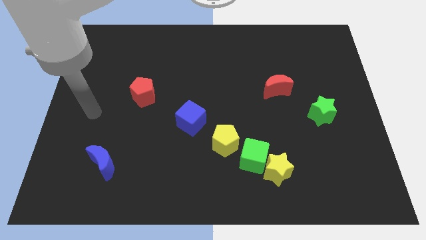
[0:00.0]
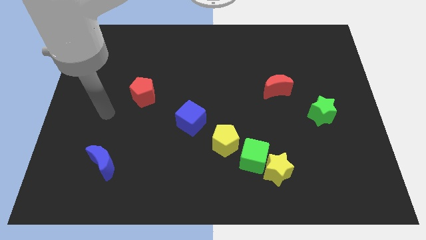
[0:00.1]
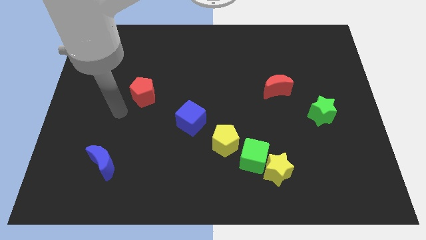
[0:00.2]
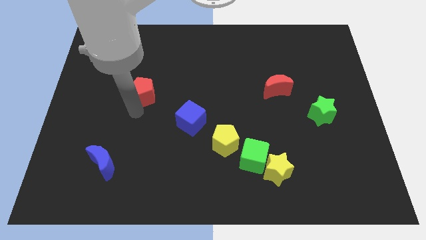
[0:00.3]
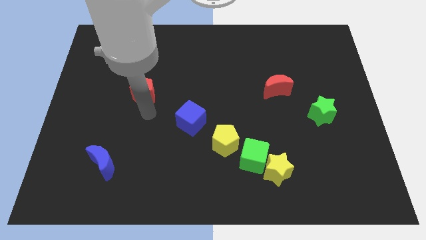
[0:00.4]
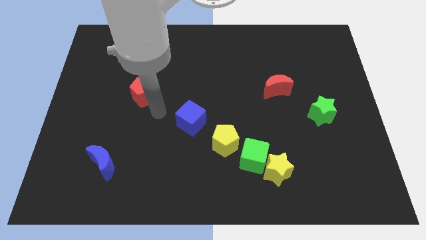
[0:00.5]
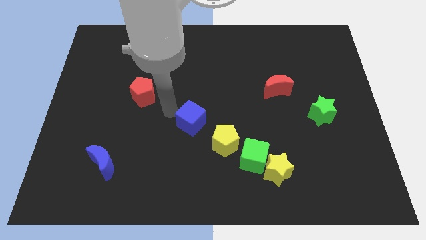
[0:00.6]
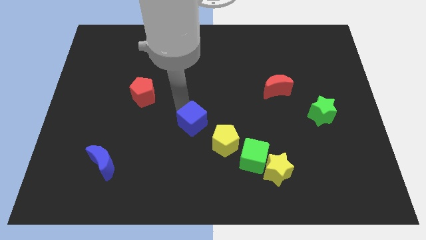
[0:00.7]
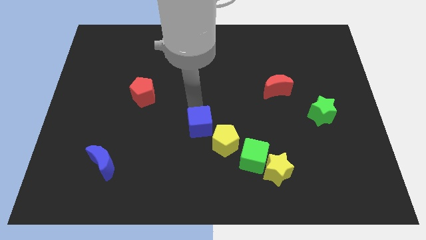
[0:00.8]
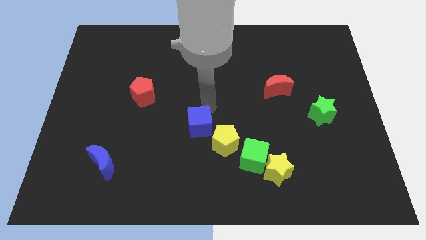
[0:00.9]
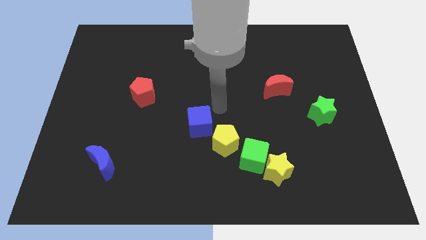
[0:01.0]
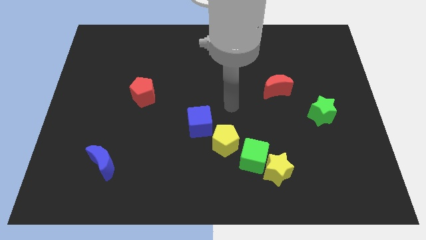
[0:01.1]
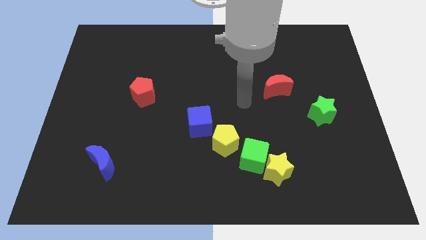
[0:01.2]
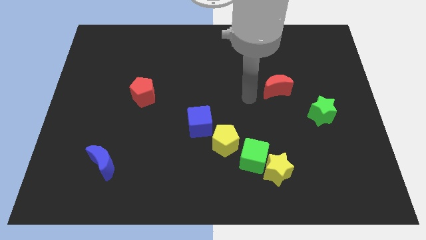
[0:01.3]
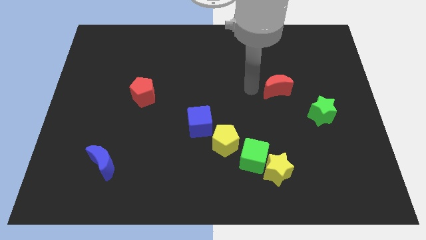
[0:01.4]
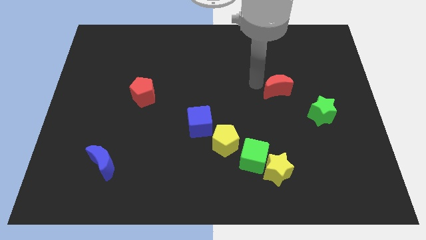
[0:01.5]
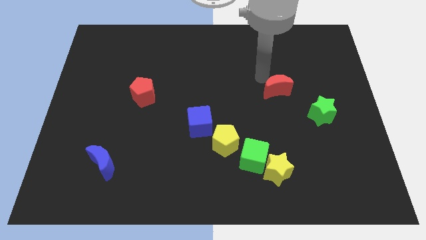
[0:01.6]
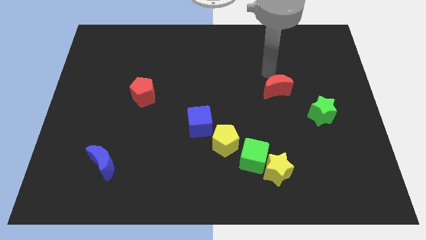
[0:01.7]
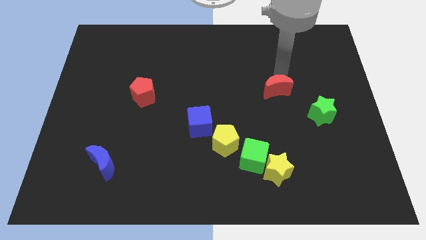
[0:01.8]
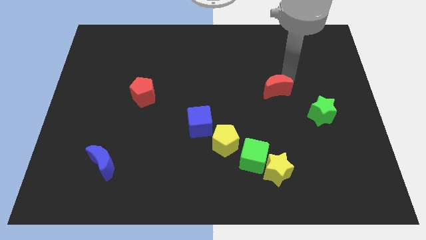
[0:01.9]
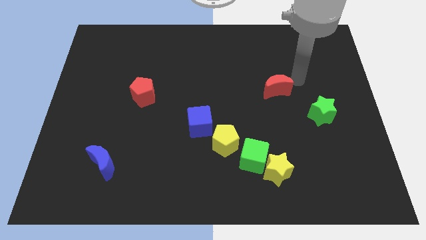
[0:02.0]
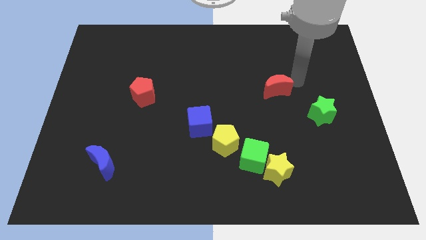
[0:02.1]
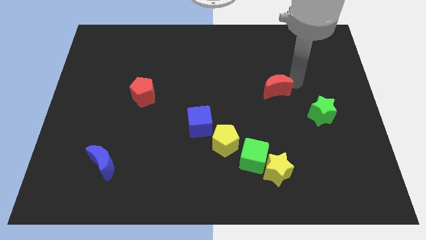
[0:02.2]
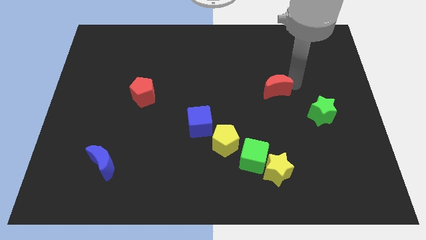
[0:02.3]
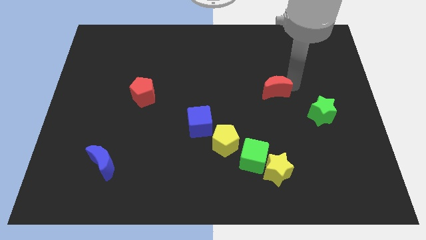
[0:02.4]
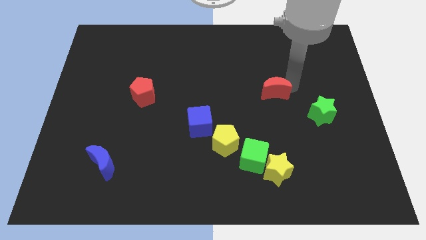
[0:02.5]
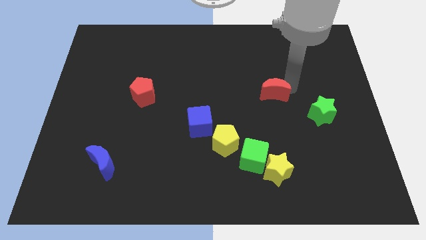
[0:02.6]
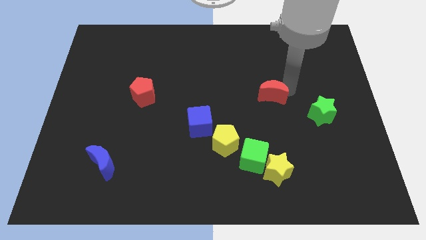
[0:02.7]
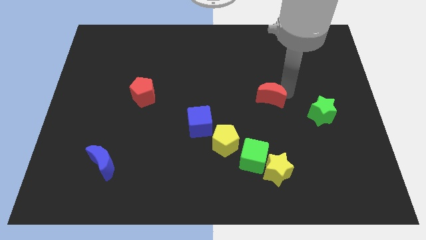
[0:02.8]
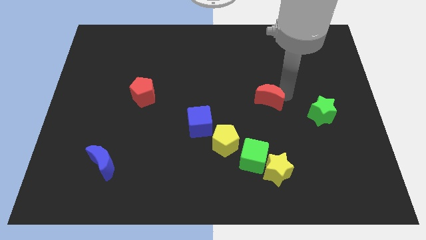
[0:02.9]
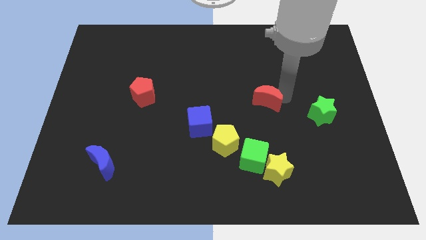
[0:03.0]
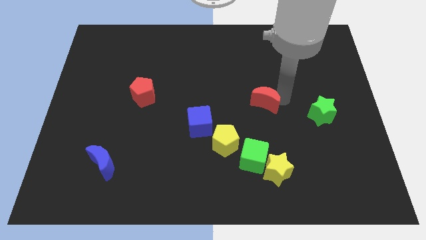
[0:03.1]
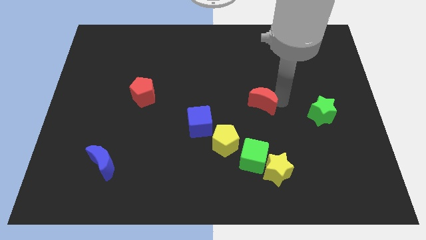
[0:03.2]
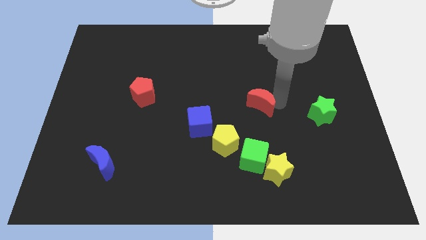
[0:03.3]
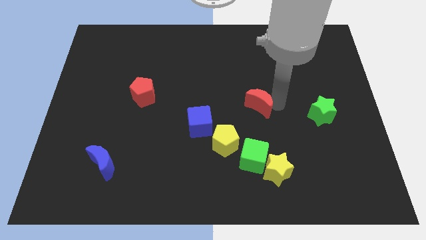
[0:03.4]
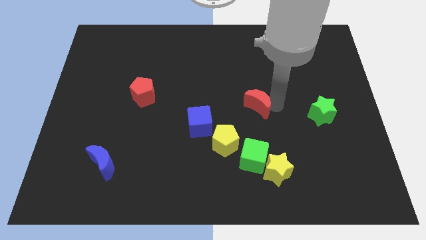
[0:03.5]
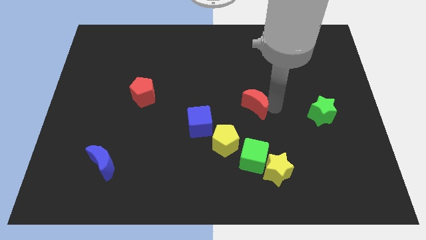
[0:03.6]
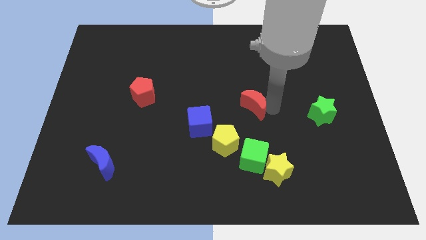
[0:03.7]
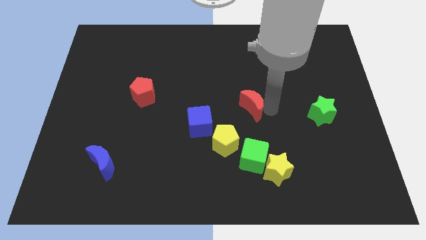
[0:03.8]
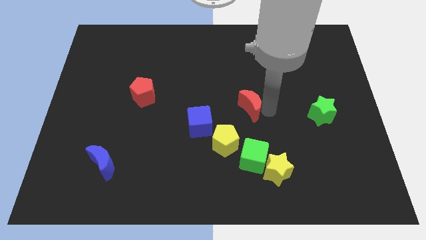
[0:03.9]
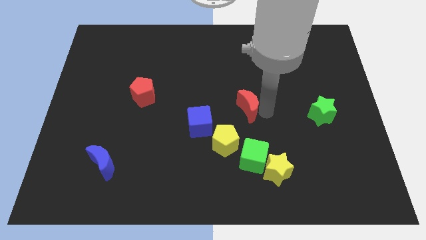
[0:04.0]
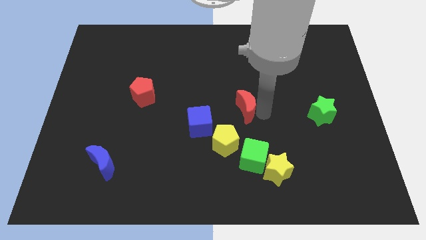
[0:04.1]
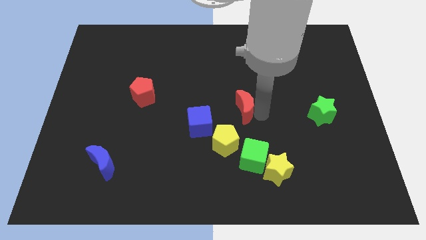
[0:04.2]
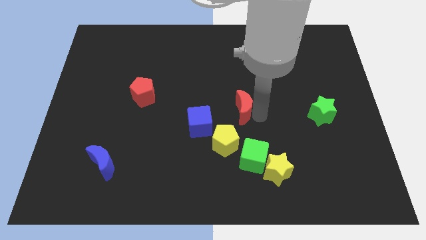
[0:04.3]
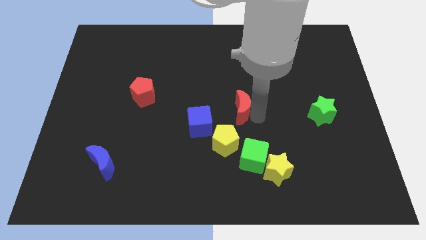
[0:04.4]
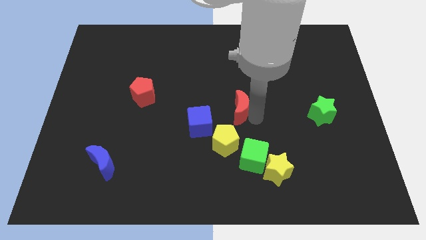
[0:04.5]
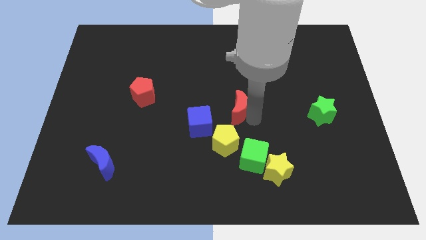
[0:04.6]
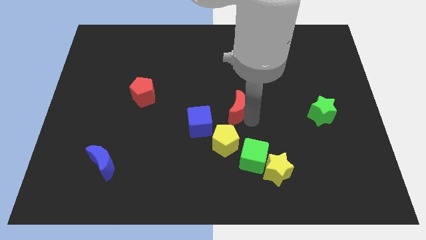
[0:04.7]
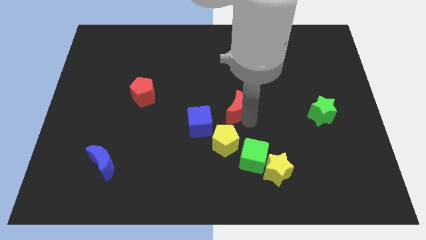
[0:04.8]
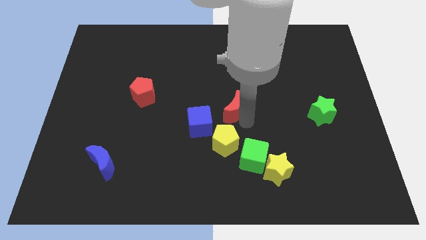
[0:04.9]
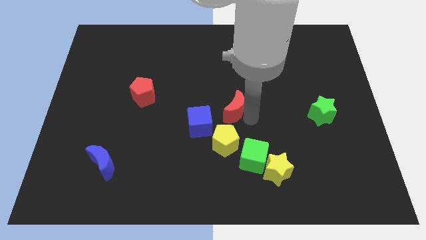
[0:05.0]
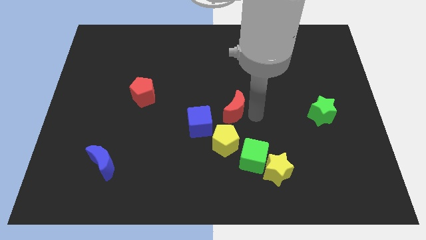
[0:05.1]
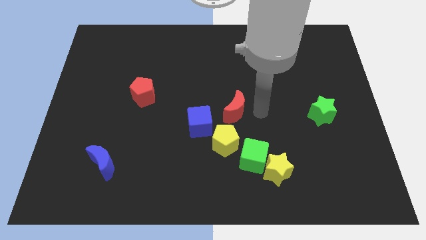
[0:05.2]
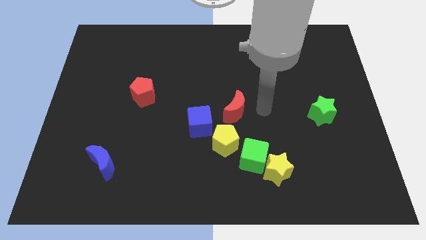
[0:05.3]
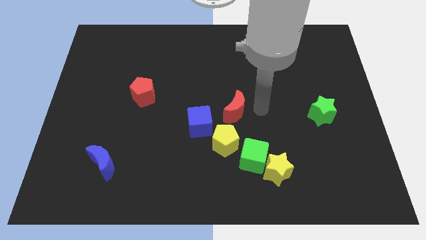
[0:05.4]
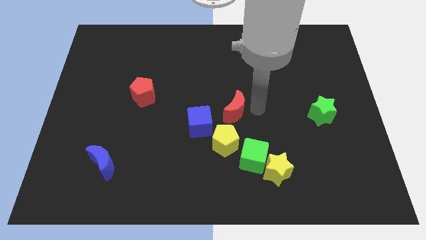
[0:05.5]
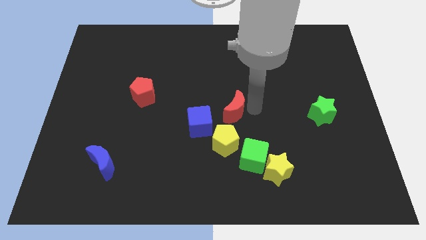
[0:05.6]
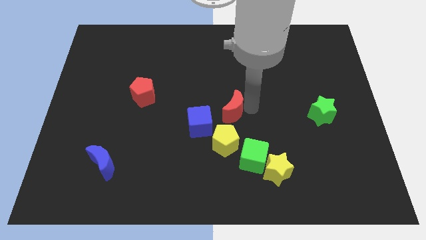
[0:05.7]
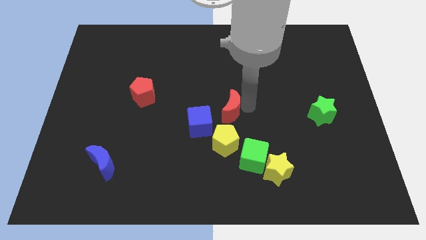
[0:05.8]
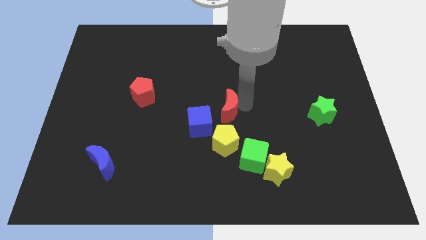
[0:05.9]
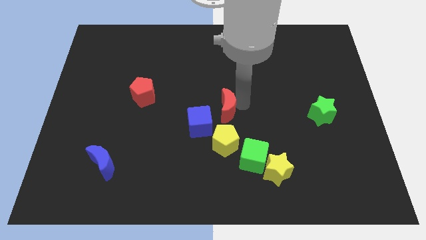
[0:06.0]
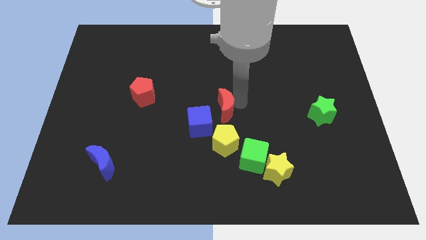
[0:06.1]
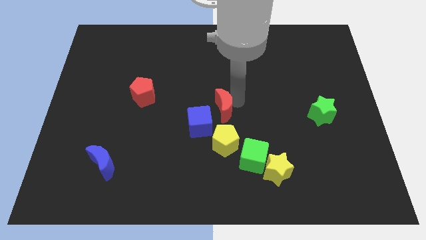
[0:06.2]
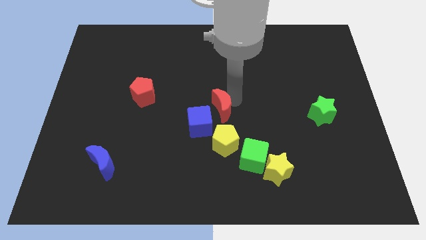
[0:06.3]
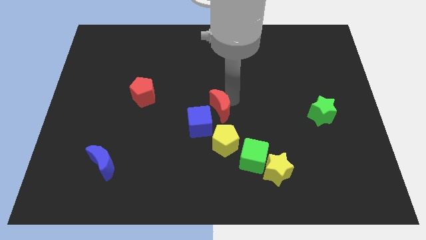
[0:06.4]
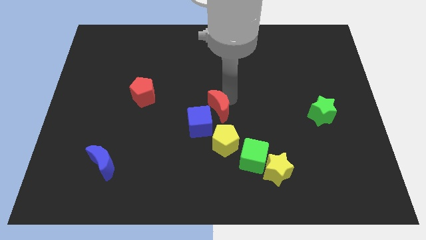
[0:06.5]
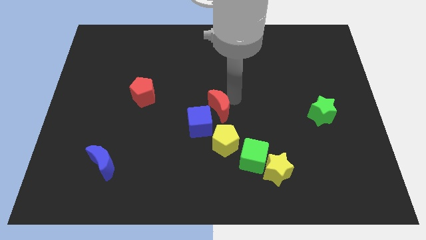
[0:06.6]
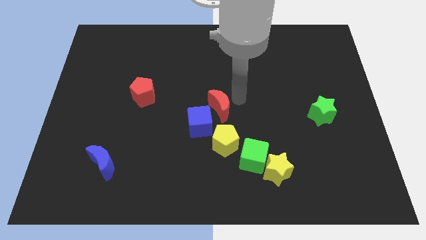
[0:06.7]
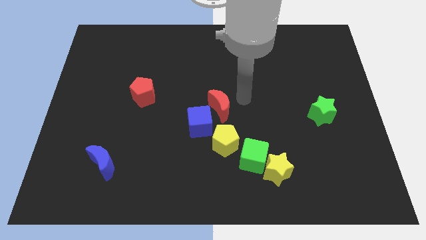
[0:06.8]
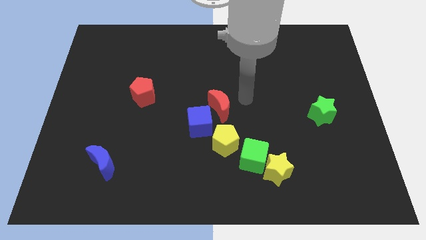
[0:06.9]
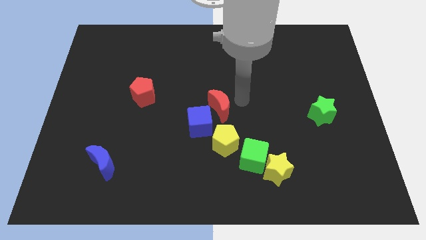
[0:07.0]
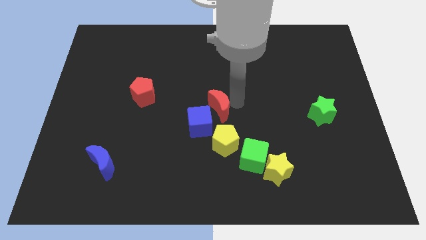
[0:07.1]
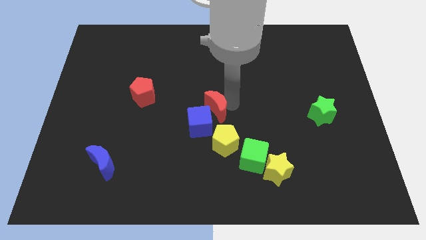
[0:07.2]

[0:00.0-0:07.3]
push the red moon close to the blue cube

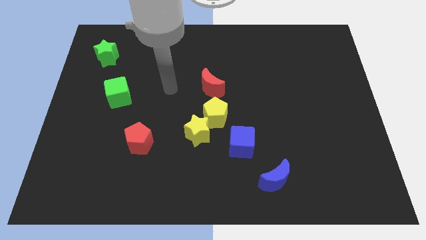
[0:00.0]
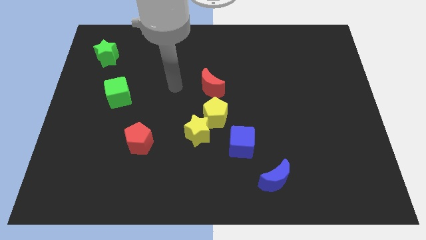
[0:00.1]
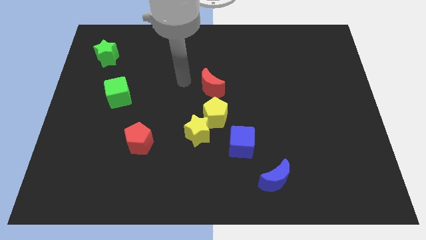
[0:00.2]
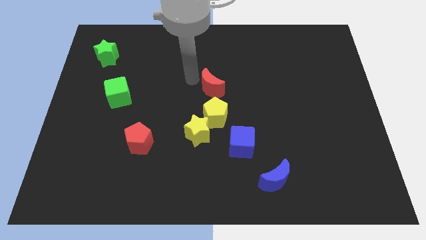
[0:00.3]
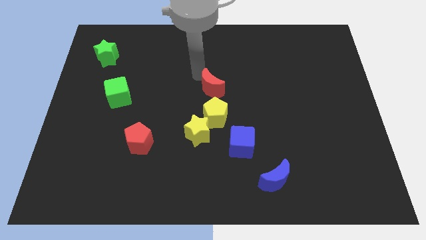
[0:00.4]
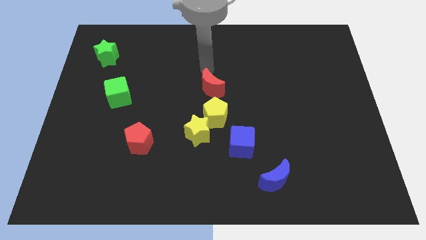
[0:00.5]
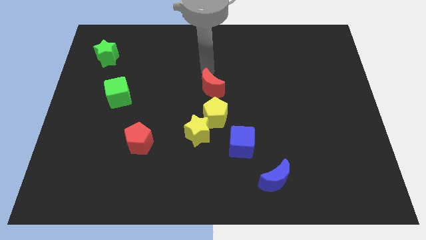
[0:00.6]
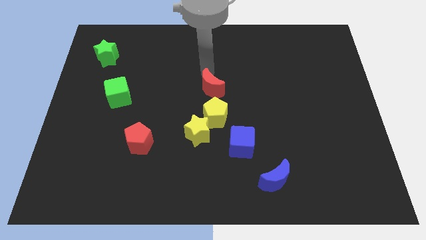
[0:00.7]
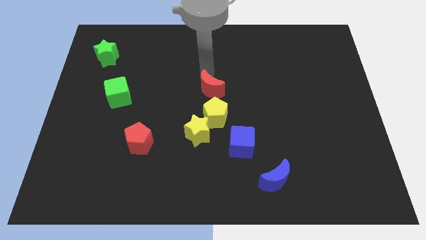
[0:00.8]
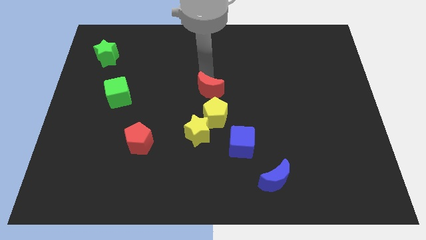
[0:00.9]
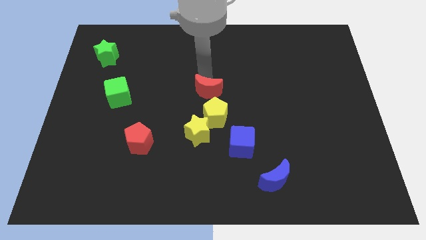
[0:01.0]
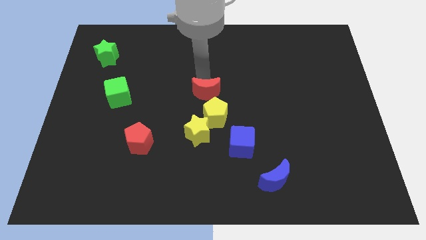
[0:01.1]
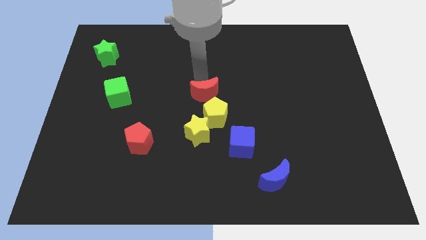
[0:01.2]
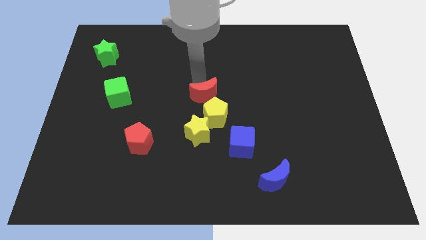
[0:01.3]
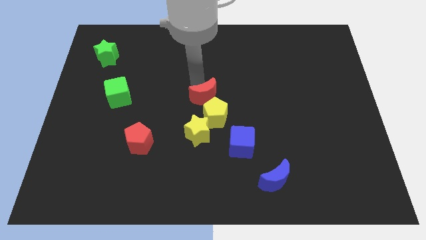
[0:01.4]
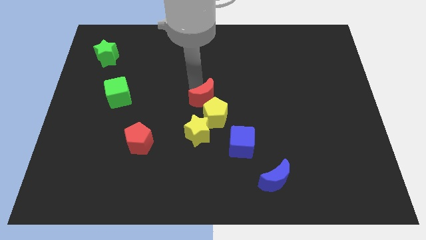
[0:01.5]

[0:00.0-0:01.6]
slide the red moon close to the yellow pentagon
